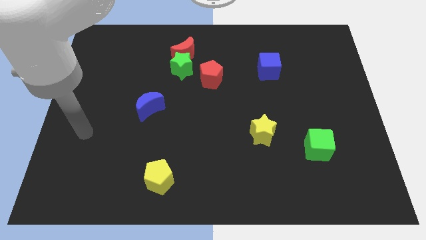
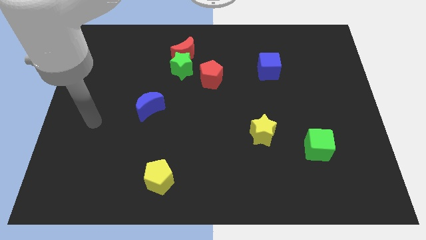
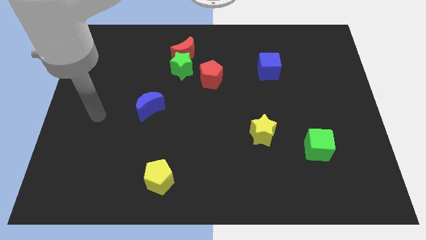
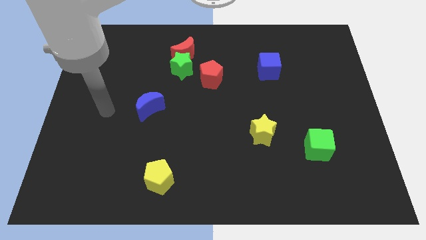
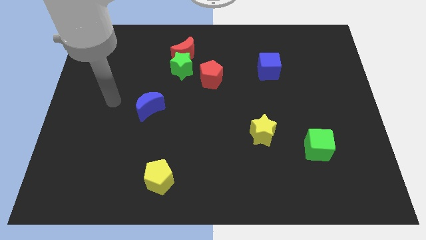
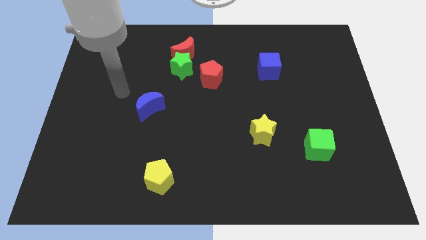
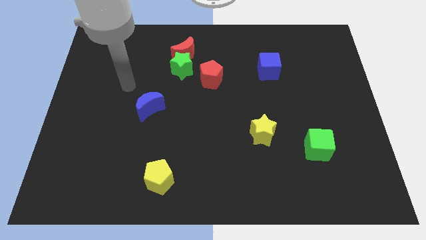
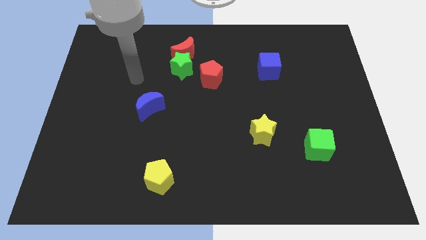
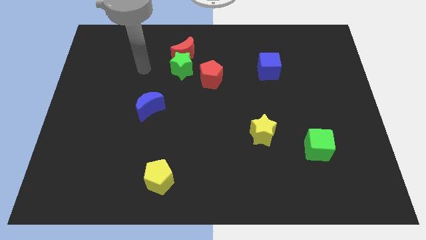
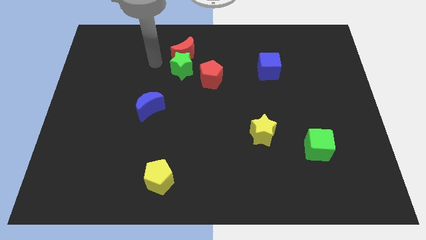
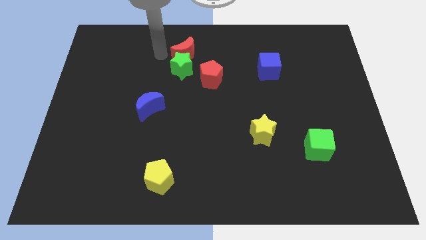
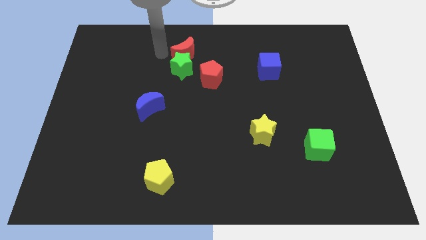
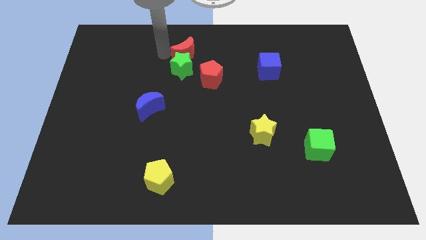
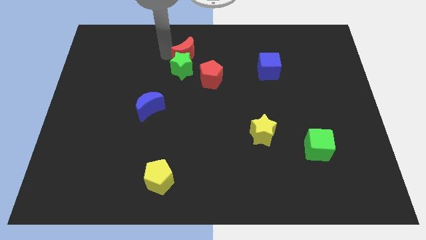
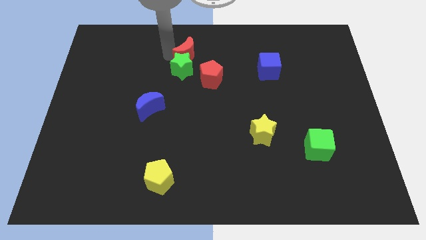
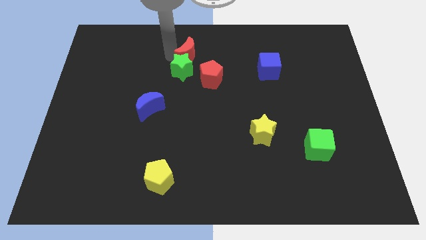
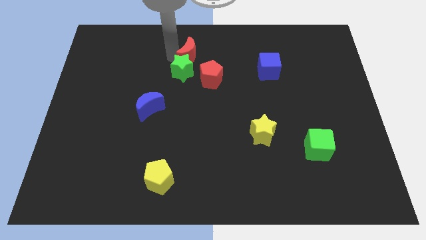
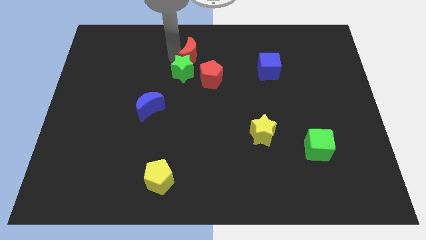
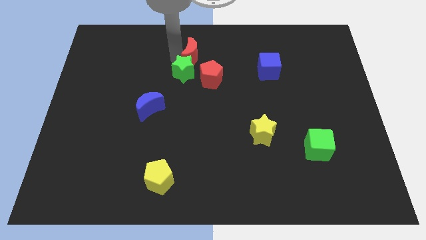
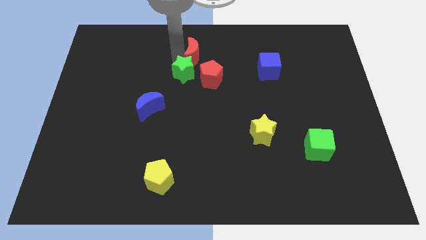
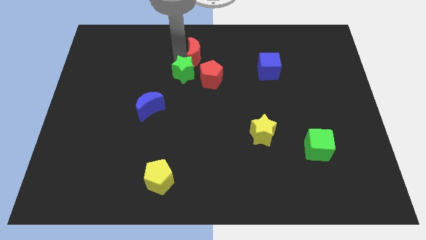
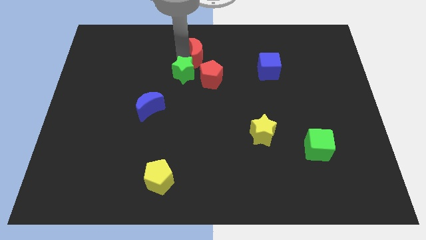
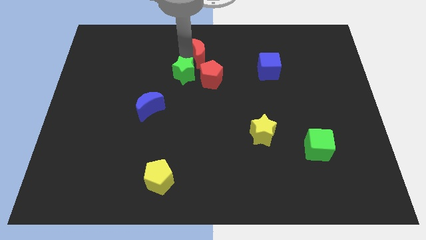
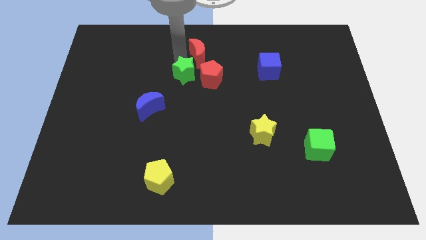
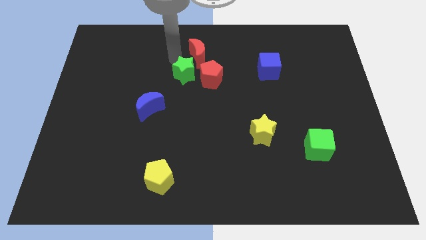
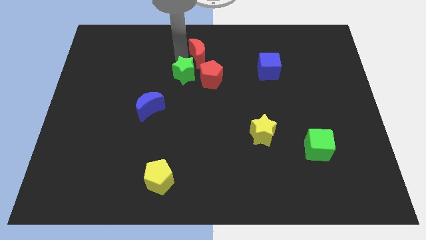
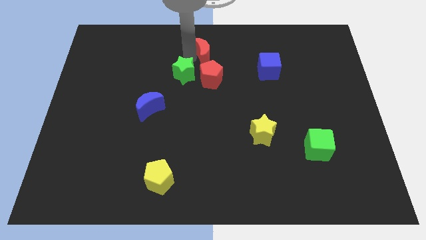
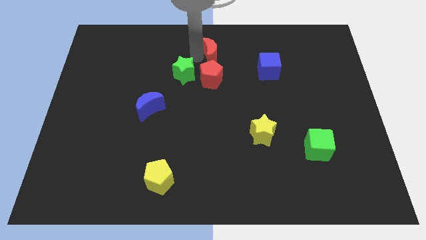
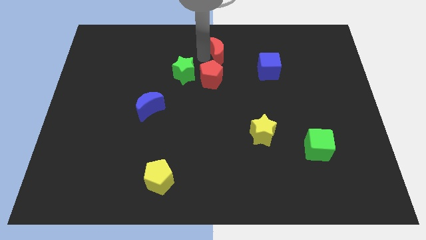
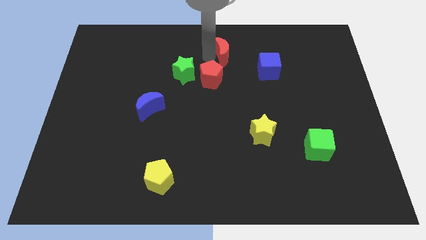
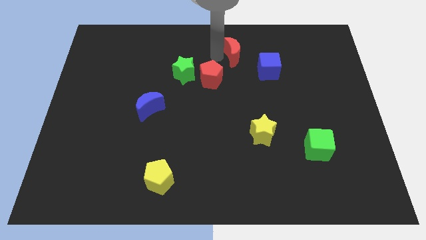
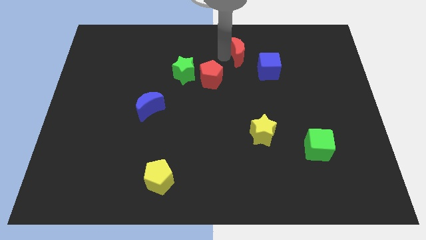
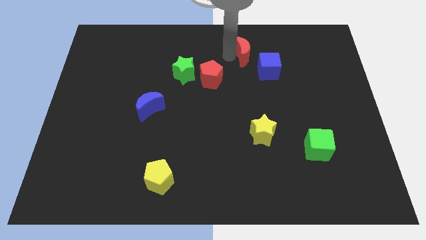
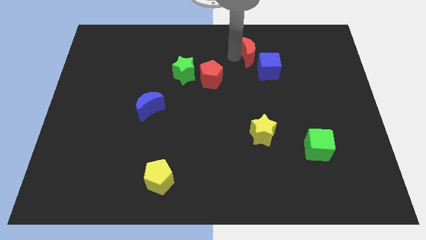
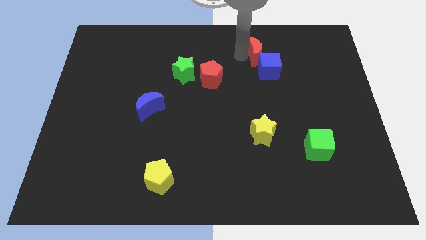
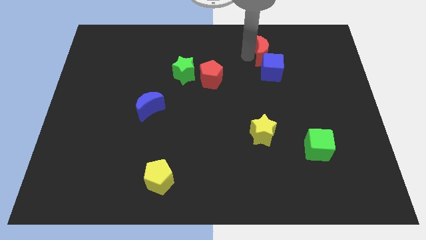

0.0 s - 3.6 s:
slide the red moon to the right

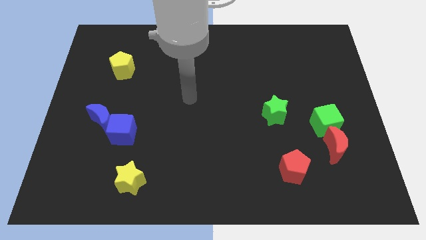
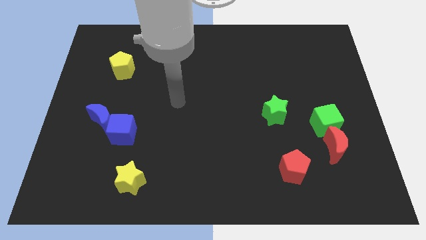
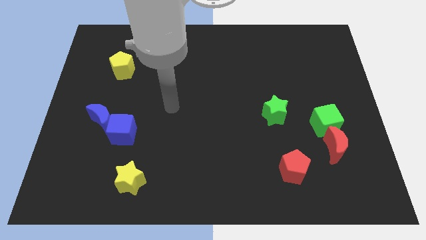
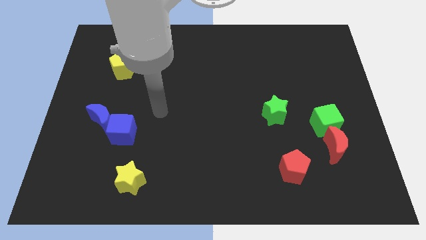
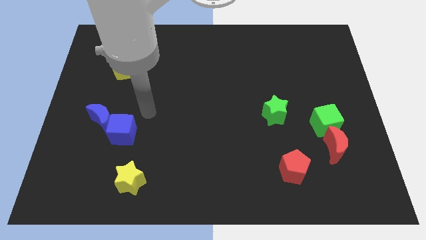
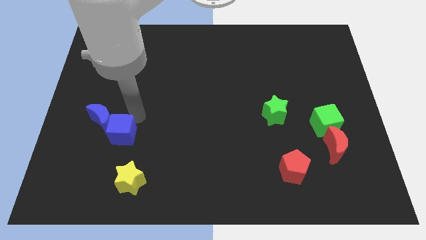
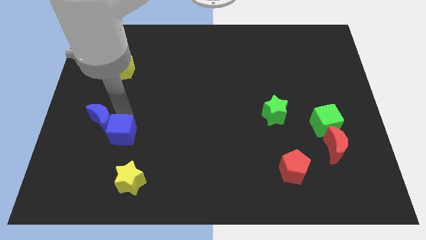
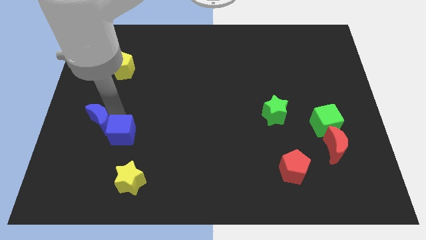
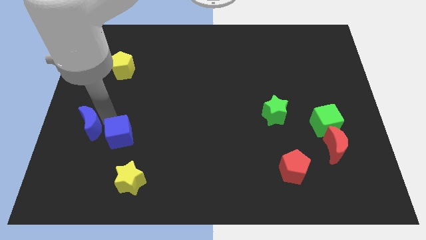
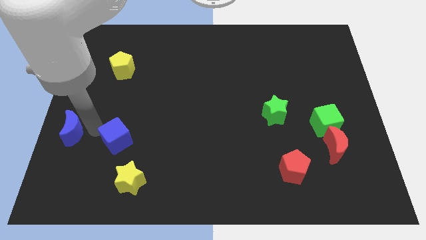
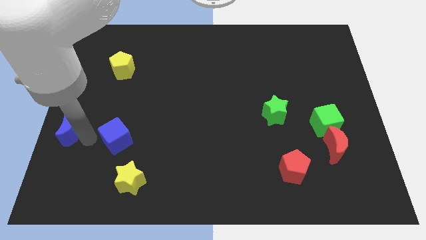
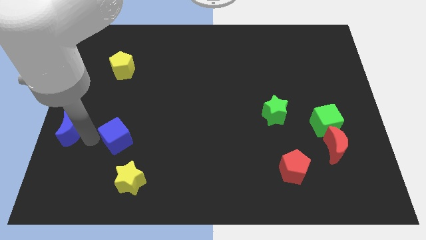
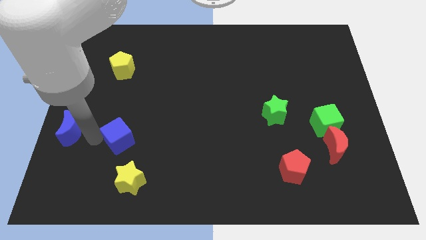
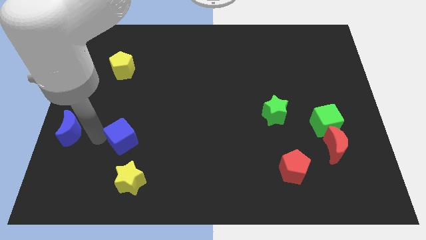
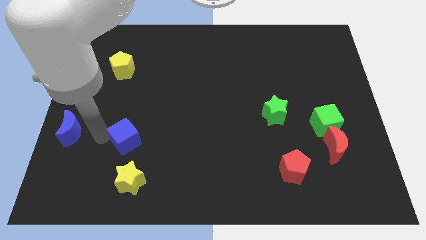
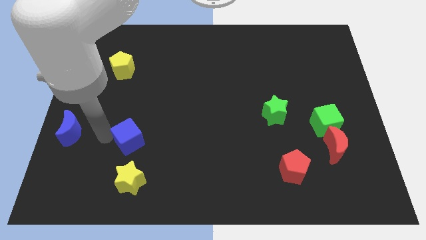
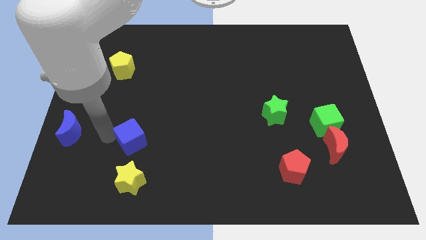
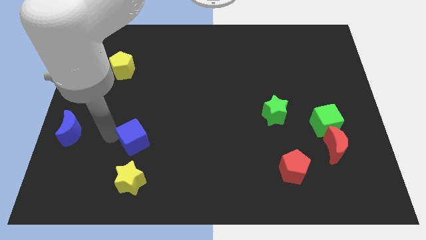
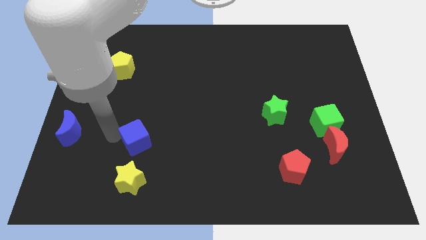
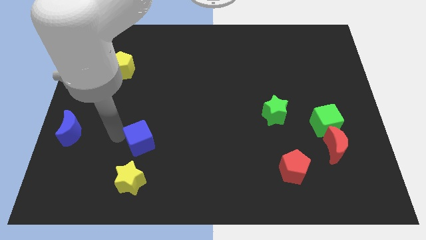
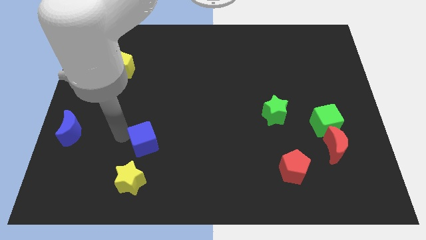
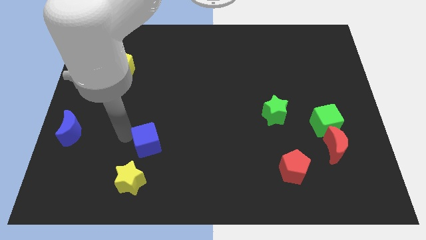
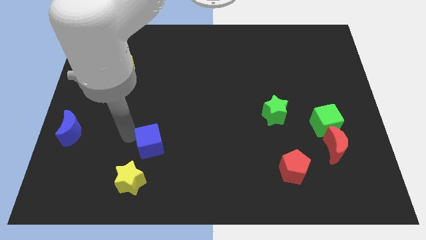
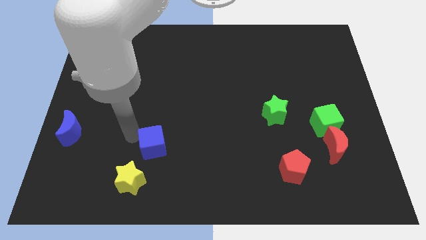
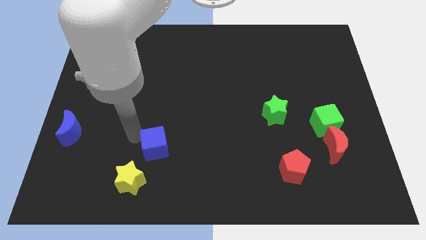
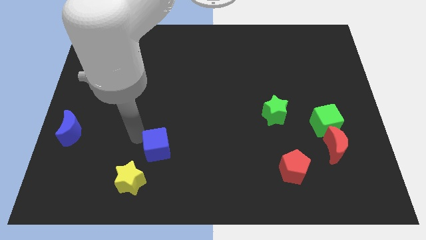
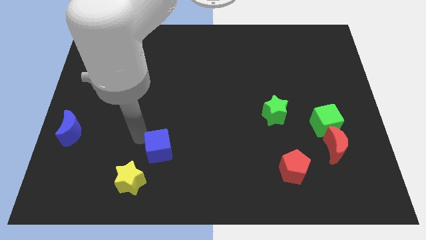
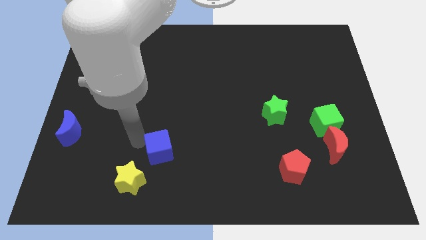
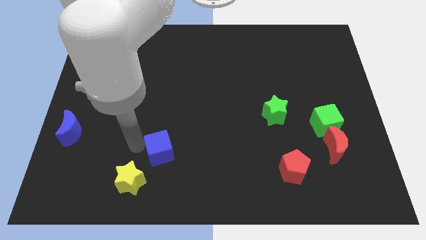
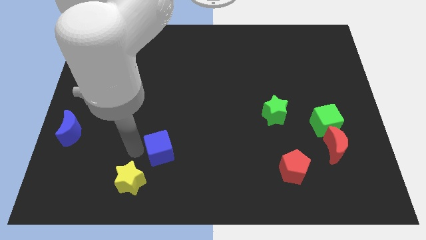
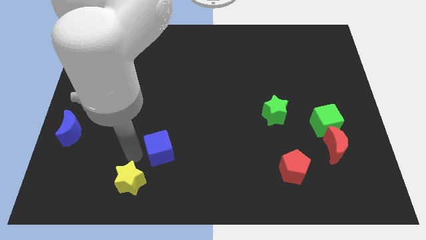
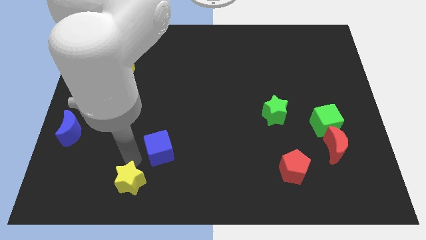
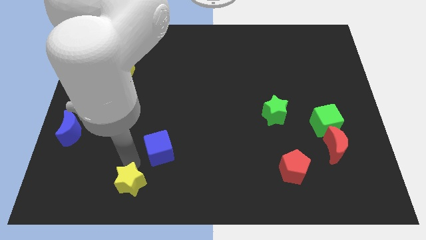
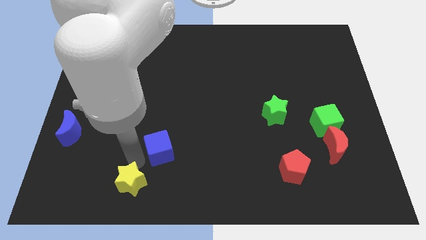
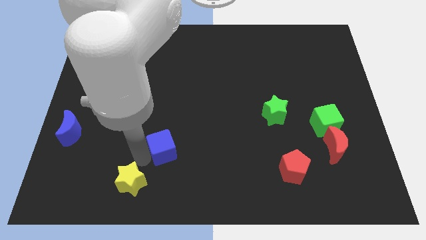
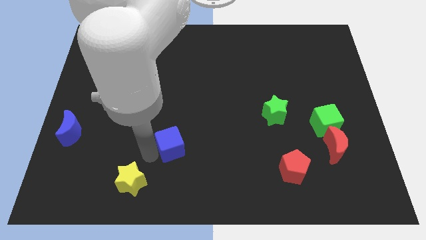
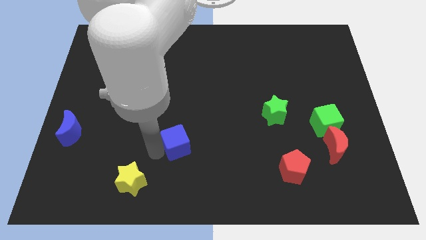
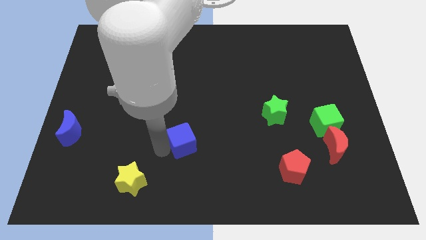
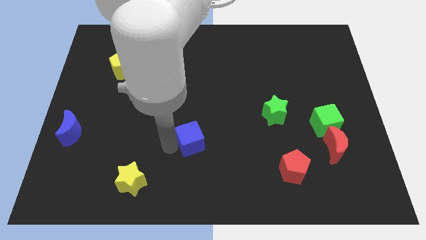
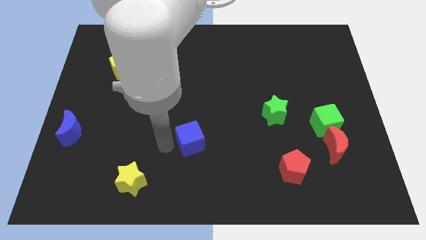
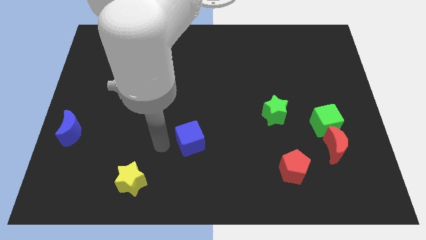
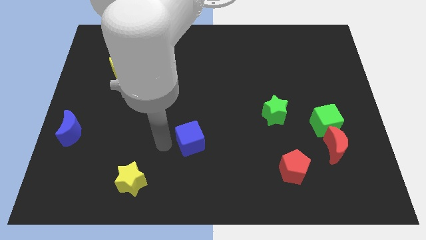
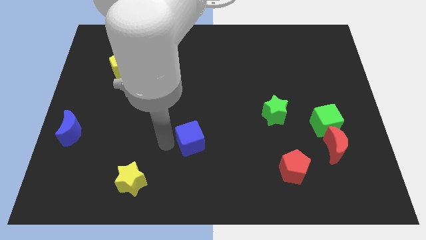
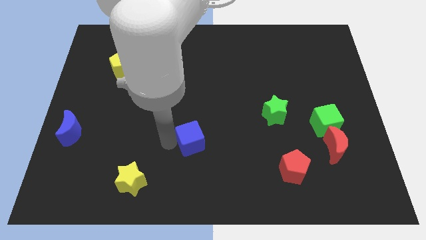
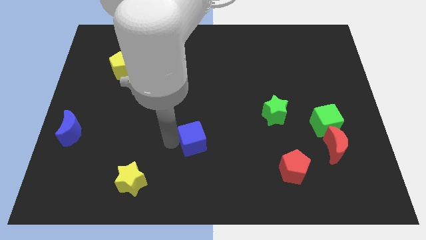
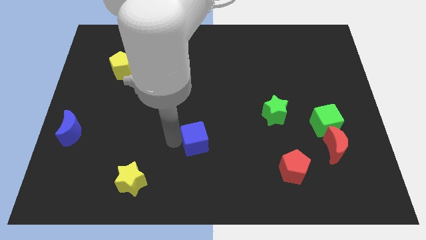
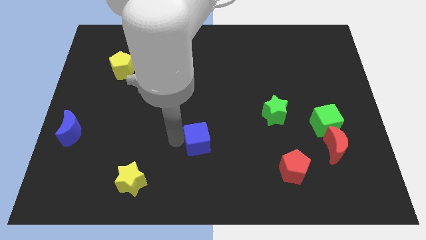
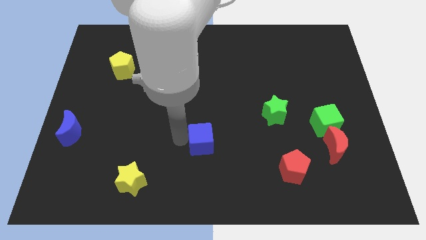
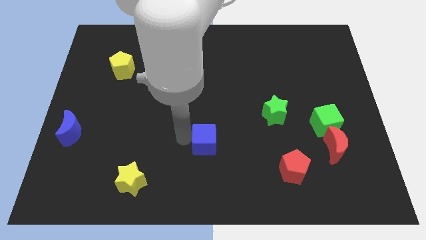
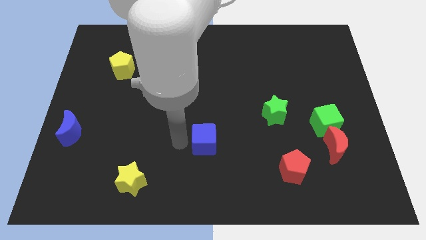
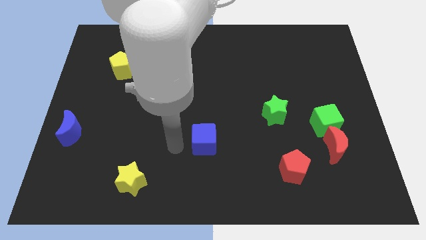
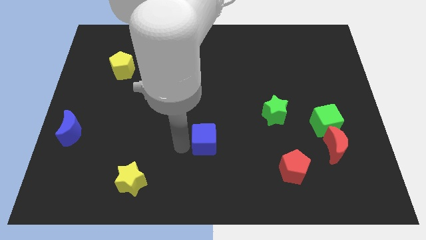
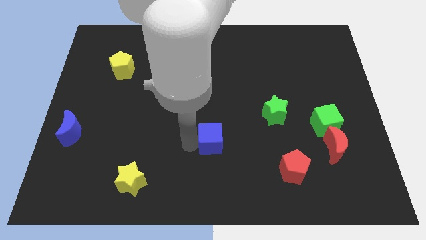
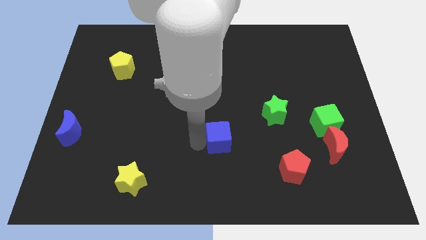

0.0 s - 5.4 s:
push the blue cube to the right
